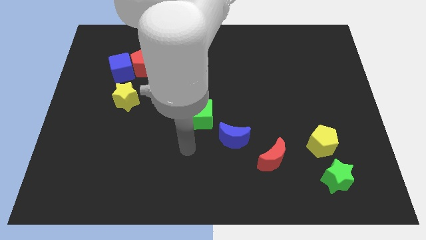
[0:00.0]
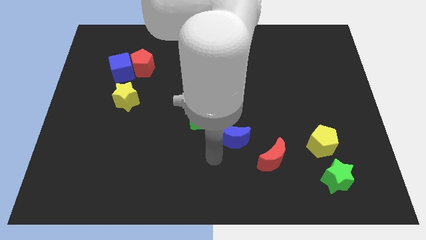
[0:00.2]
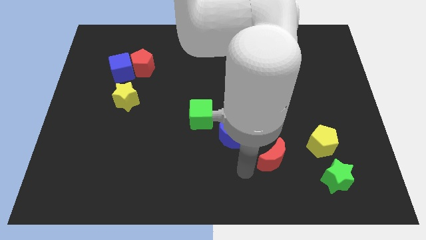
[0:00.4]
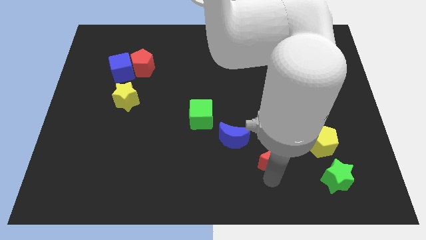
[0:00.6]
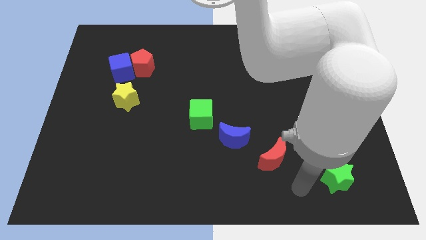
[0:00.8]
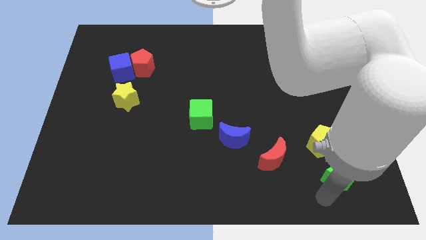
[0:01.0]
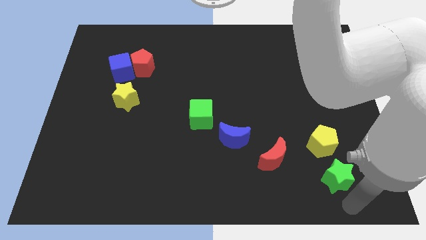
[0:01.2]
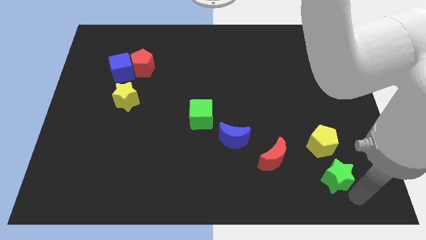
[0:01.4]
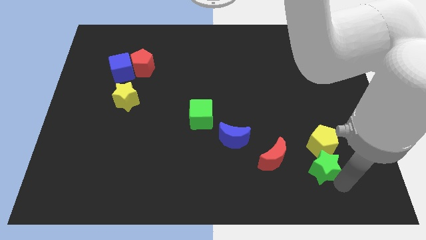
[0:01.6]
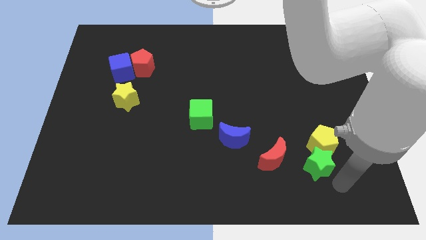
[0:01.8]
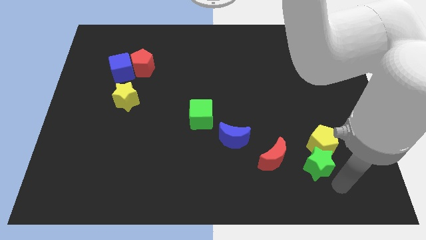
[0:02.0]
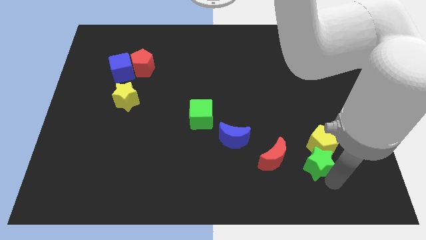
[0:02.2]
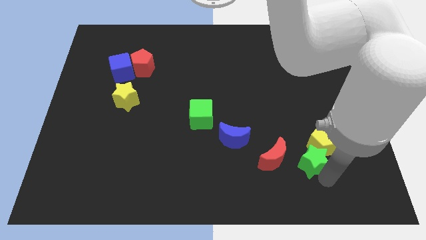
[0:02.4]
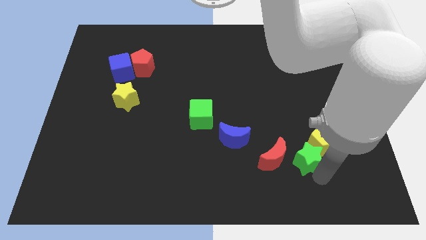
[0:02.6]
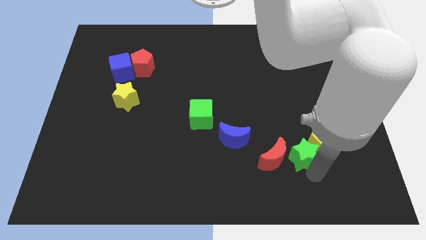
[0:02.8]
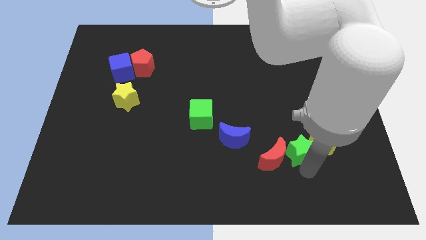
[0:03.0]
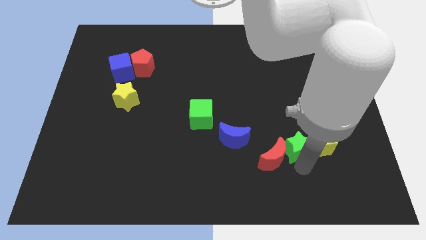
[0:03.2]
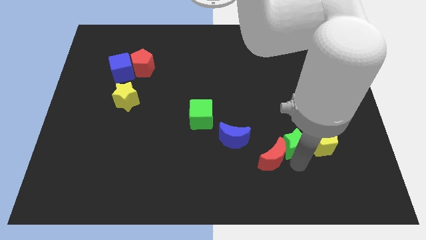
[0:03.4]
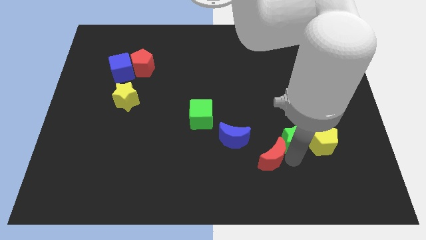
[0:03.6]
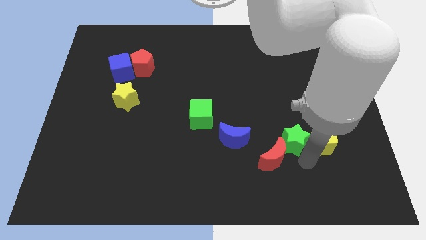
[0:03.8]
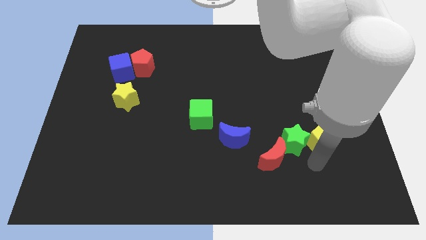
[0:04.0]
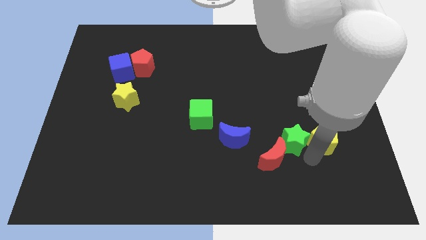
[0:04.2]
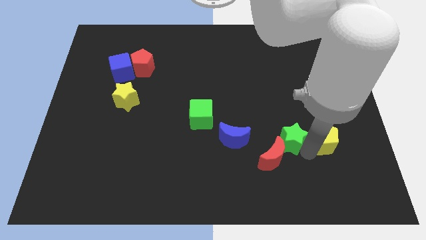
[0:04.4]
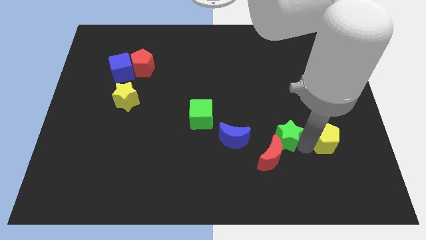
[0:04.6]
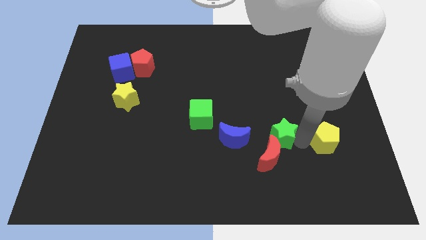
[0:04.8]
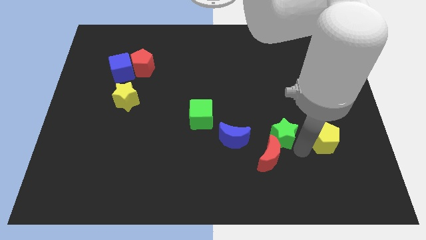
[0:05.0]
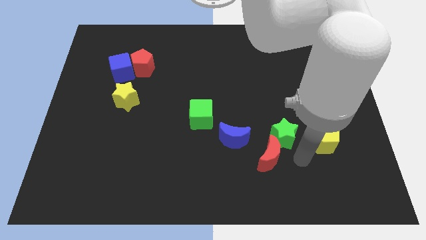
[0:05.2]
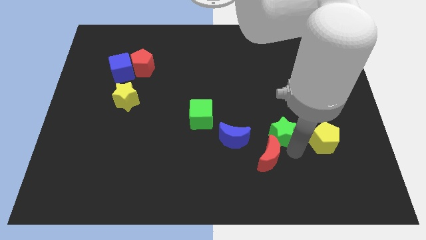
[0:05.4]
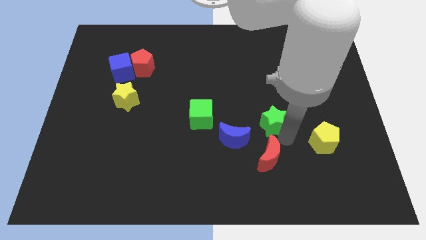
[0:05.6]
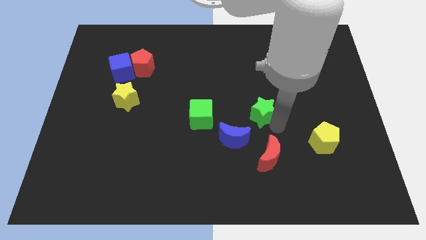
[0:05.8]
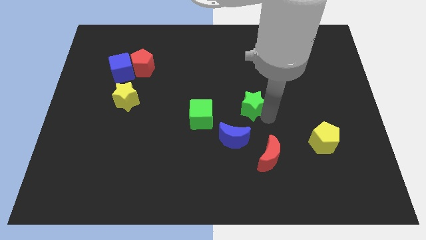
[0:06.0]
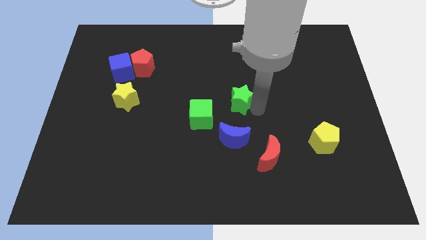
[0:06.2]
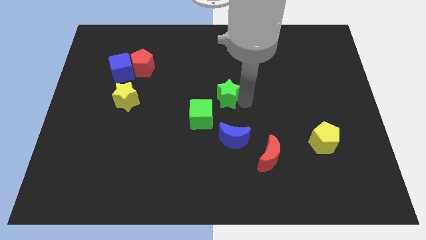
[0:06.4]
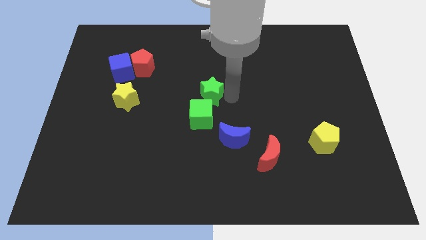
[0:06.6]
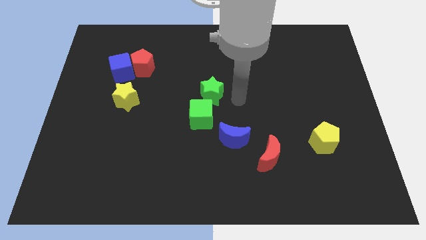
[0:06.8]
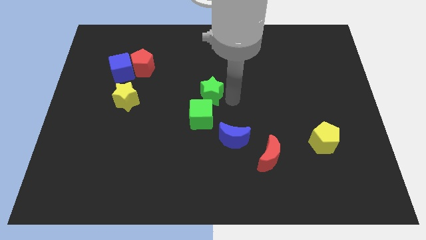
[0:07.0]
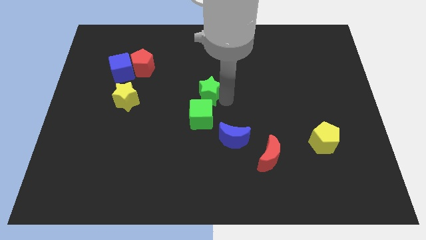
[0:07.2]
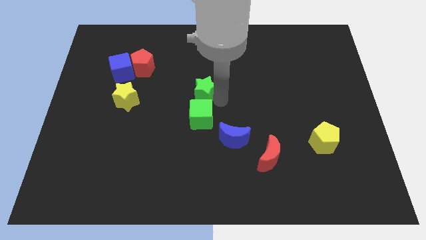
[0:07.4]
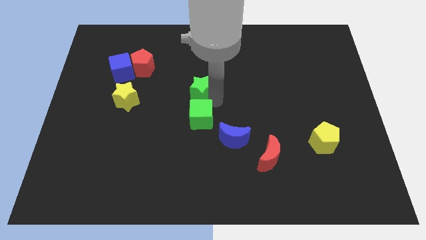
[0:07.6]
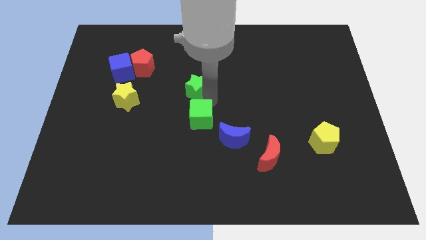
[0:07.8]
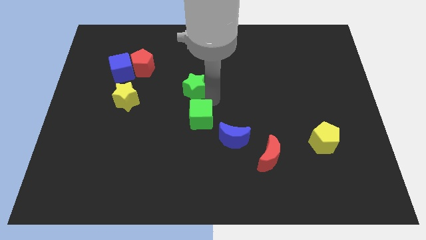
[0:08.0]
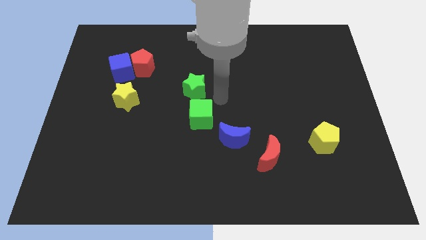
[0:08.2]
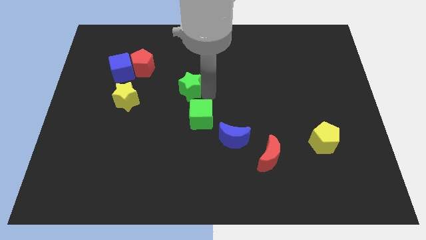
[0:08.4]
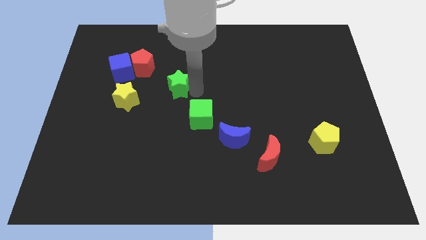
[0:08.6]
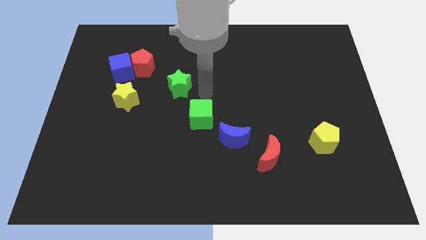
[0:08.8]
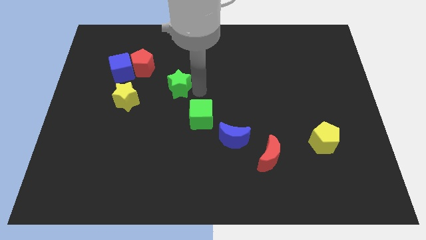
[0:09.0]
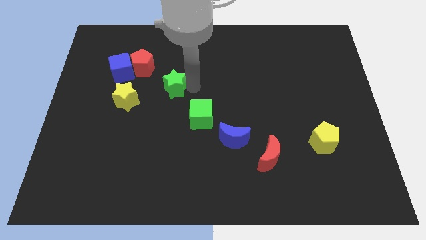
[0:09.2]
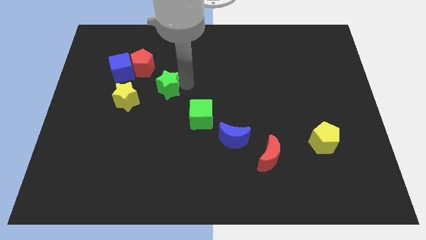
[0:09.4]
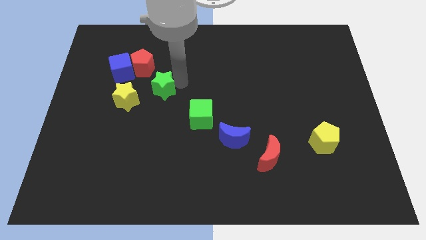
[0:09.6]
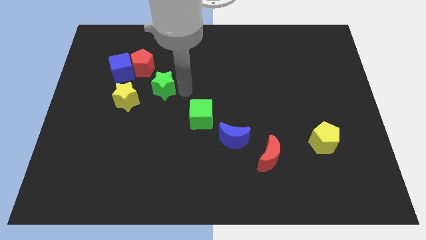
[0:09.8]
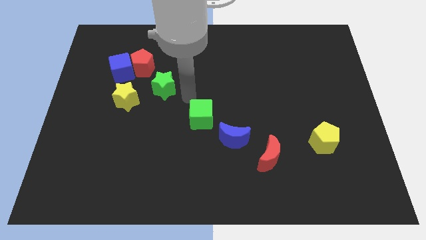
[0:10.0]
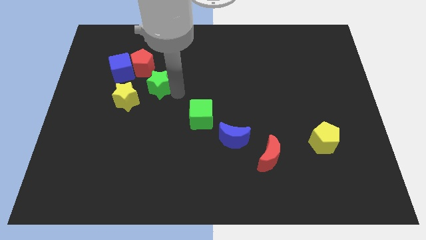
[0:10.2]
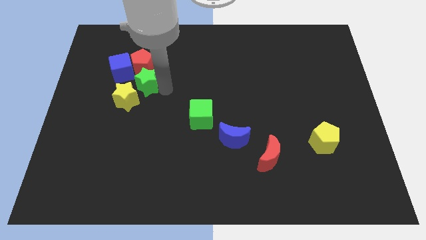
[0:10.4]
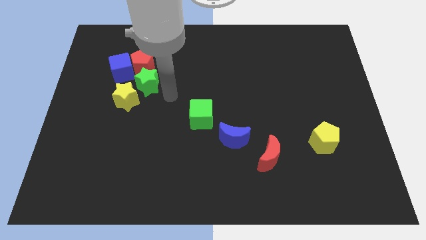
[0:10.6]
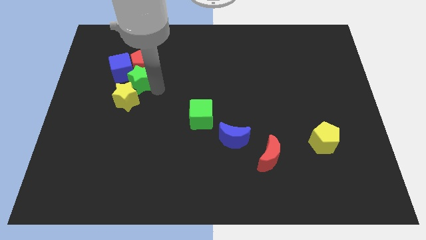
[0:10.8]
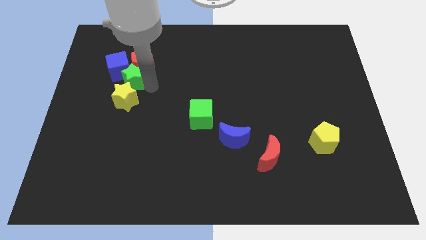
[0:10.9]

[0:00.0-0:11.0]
push the green star close to the blue cube

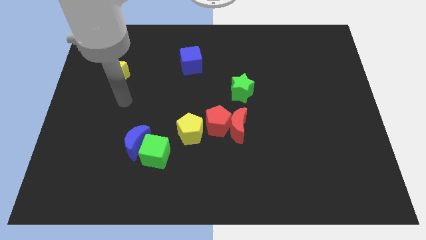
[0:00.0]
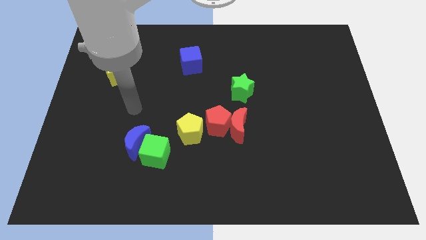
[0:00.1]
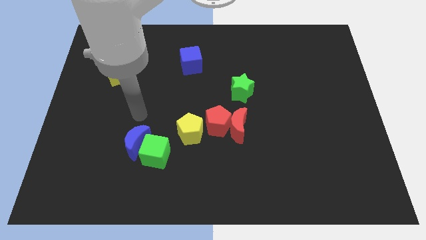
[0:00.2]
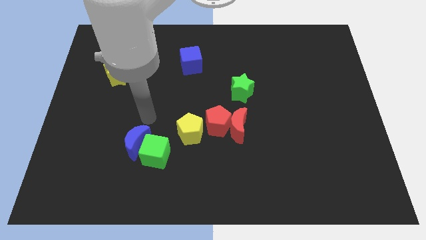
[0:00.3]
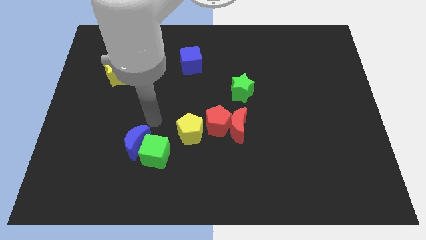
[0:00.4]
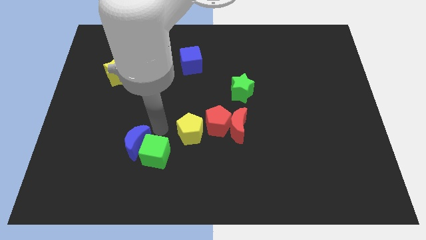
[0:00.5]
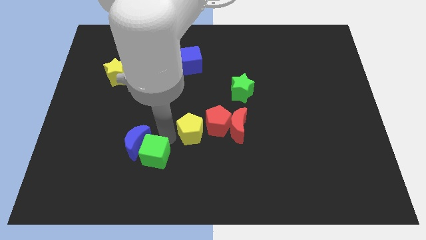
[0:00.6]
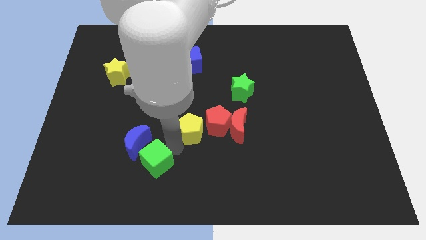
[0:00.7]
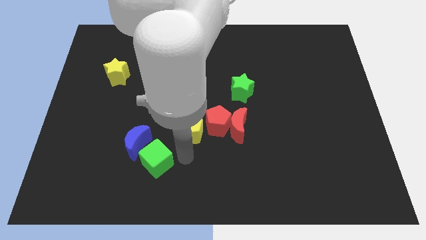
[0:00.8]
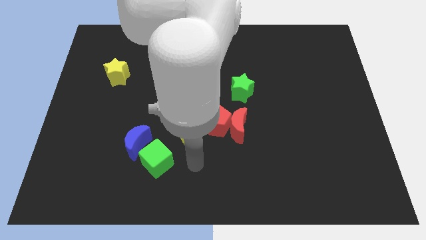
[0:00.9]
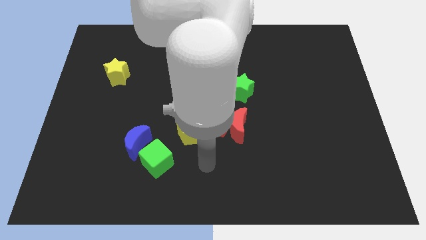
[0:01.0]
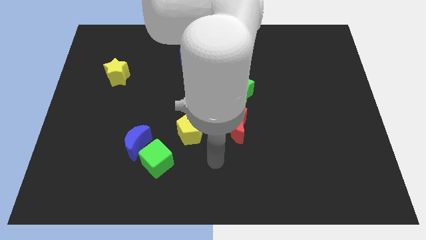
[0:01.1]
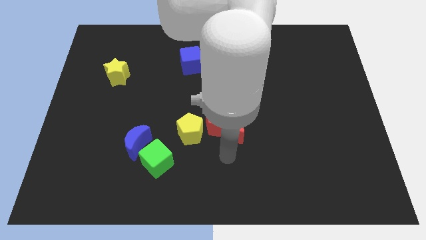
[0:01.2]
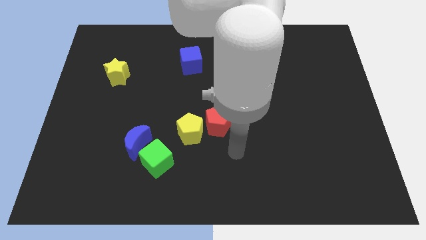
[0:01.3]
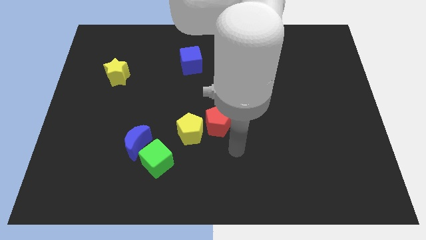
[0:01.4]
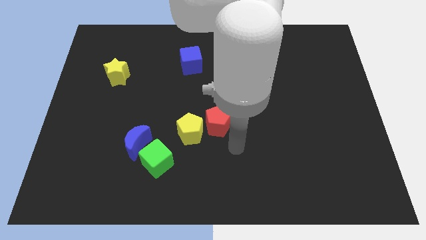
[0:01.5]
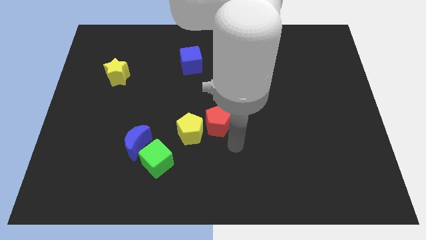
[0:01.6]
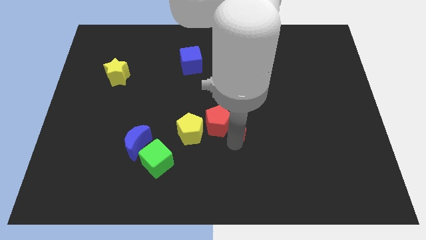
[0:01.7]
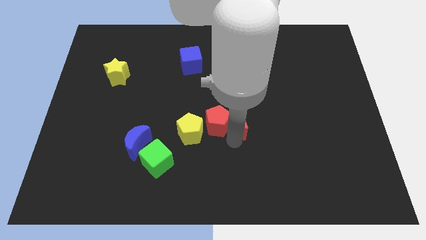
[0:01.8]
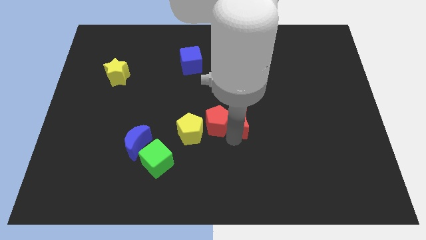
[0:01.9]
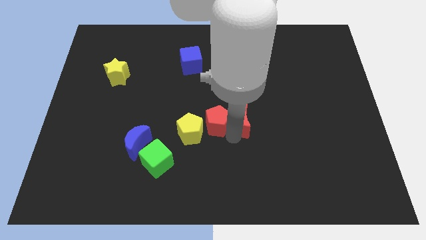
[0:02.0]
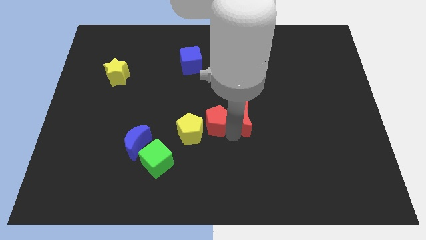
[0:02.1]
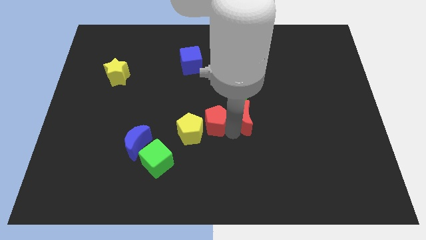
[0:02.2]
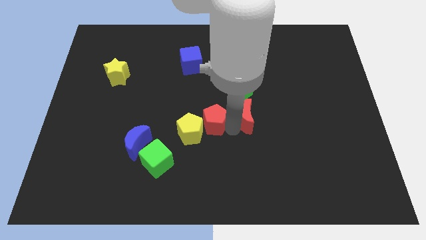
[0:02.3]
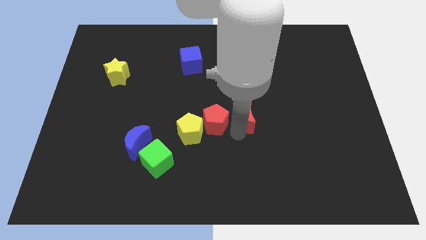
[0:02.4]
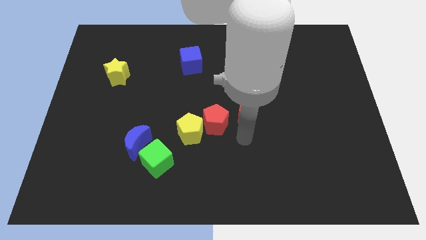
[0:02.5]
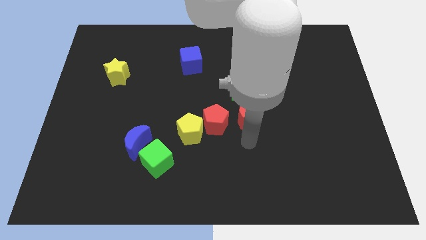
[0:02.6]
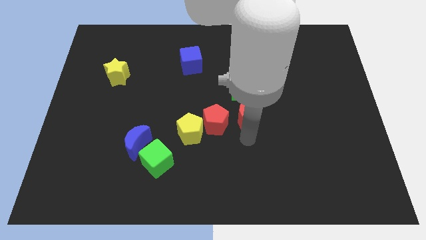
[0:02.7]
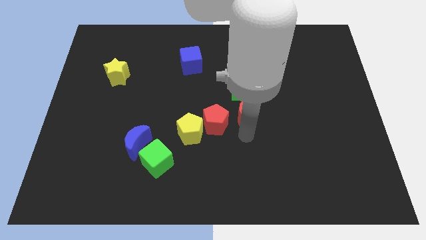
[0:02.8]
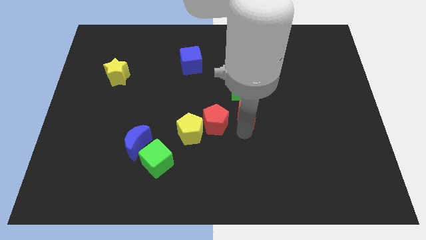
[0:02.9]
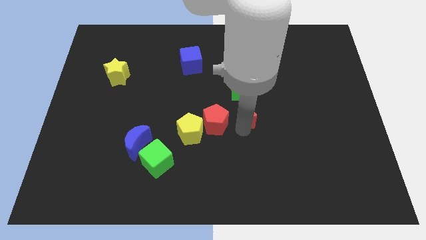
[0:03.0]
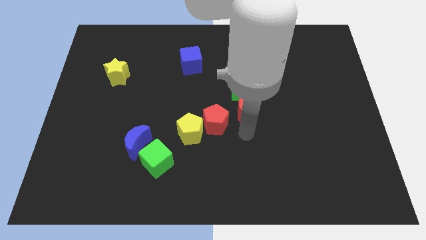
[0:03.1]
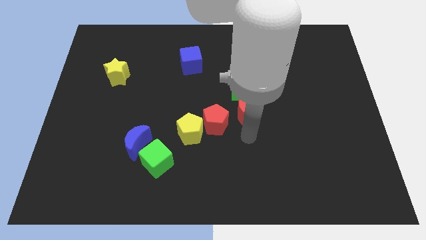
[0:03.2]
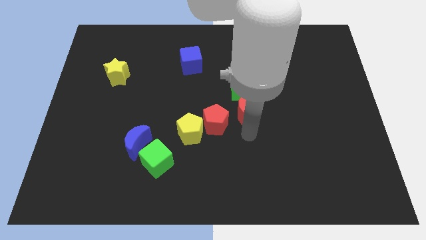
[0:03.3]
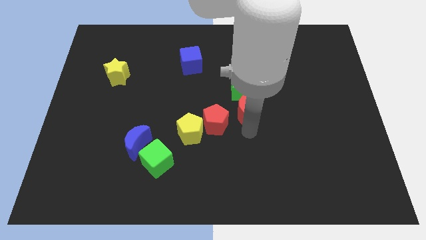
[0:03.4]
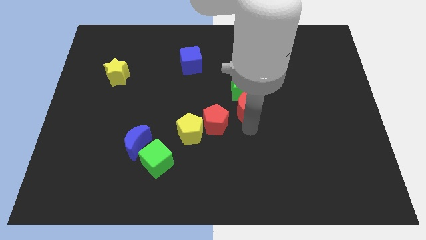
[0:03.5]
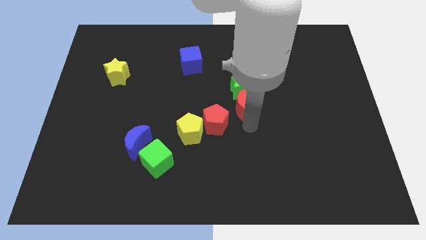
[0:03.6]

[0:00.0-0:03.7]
push the red moon to the green star
